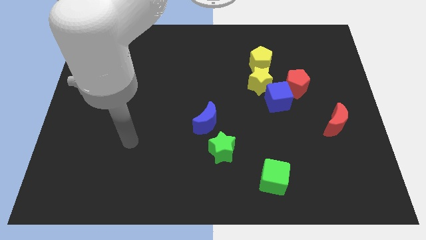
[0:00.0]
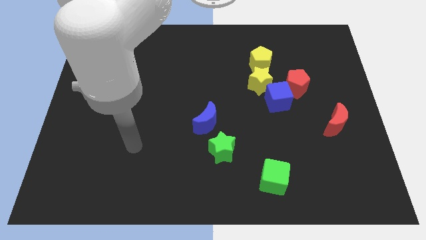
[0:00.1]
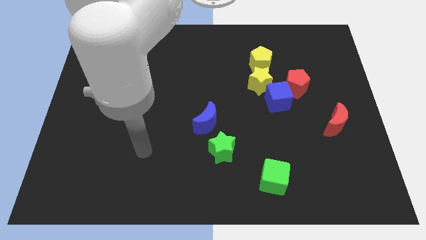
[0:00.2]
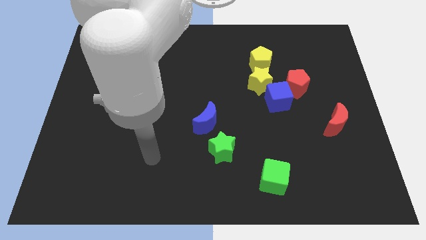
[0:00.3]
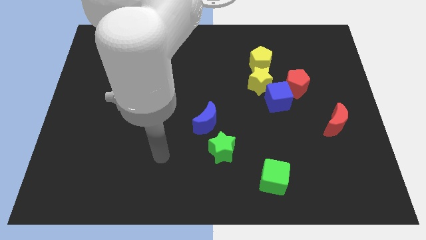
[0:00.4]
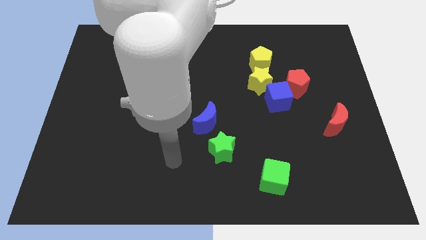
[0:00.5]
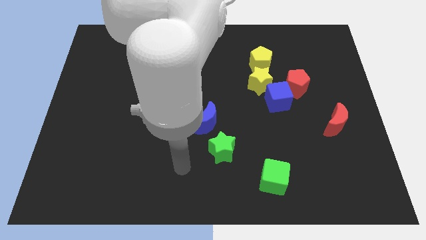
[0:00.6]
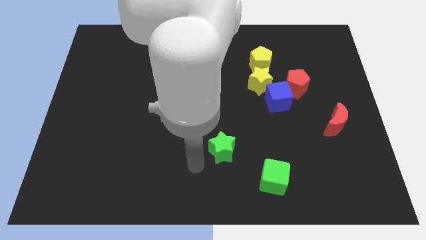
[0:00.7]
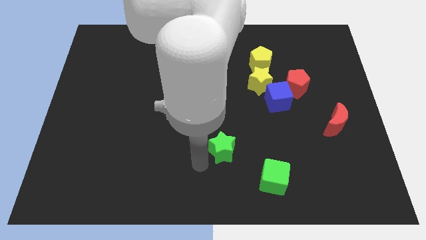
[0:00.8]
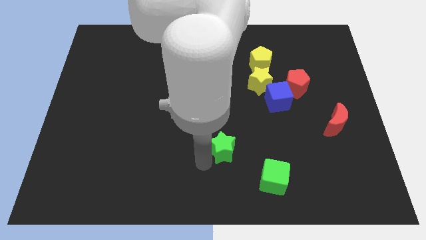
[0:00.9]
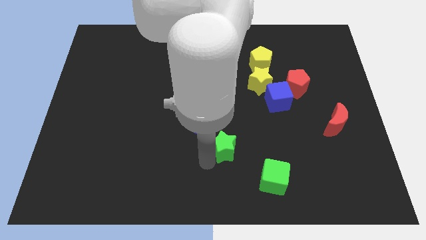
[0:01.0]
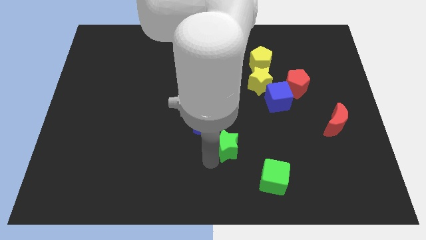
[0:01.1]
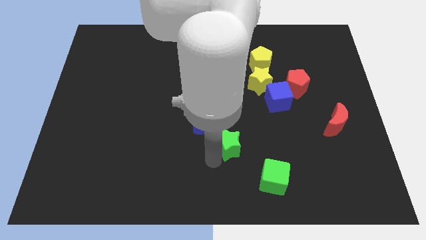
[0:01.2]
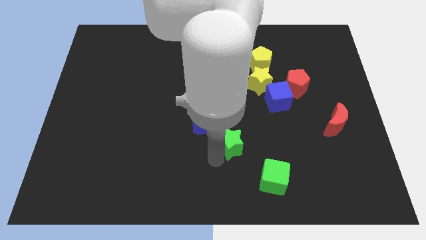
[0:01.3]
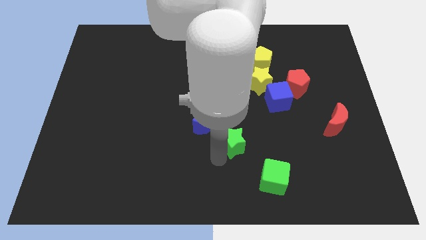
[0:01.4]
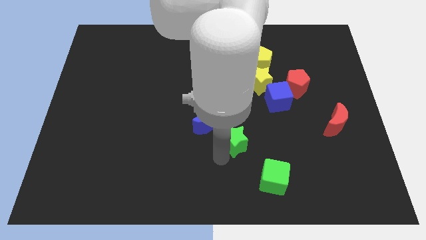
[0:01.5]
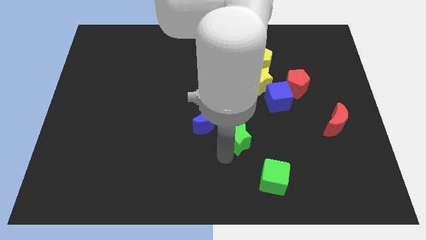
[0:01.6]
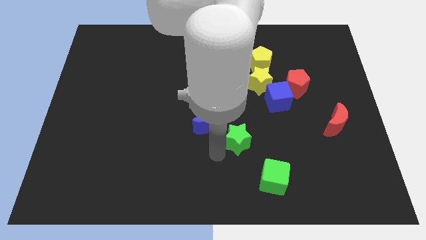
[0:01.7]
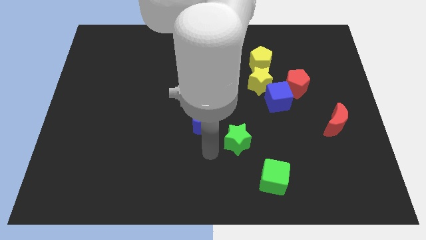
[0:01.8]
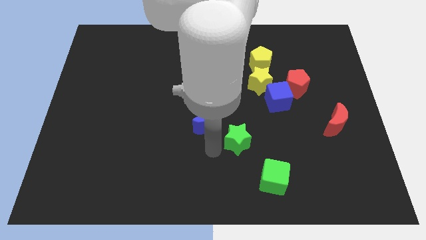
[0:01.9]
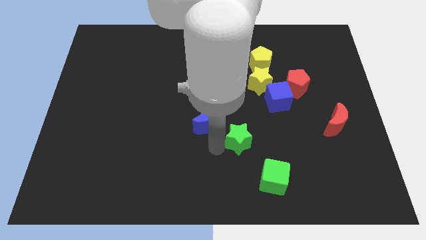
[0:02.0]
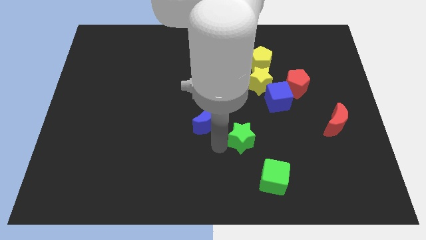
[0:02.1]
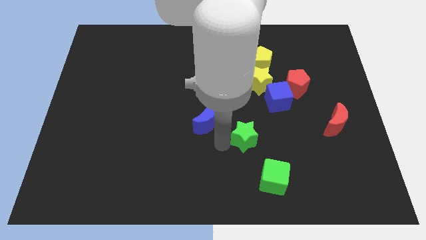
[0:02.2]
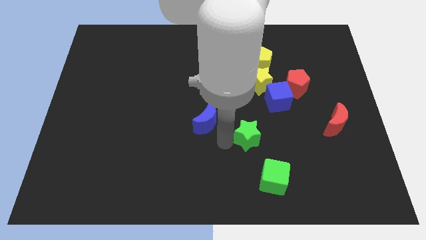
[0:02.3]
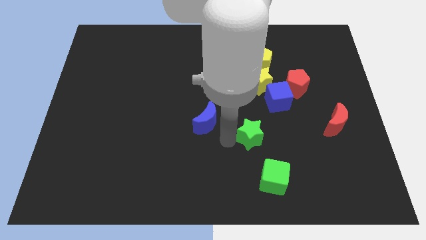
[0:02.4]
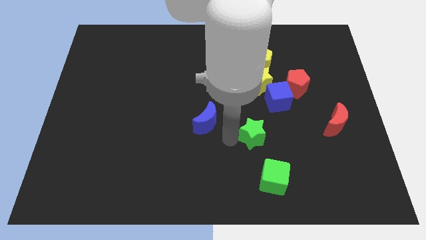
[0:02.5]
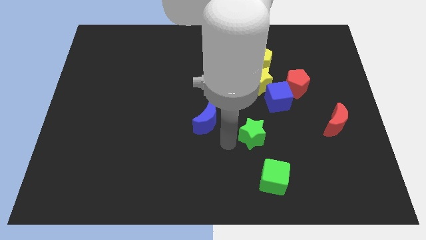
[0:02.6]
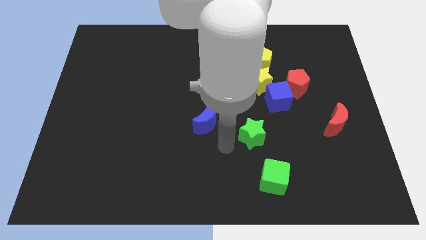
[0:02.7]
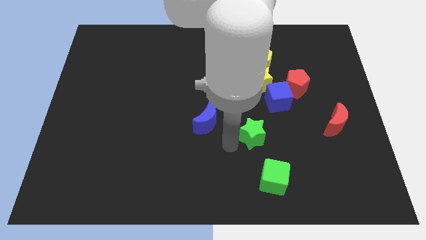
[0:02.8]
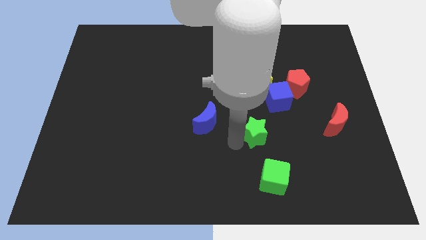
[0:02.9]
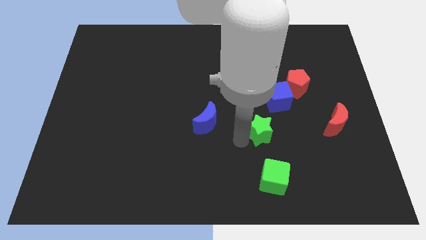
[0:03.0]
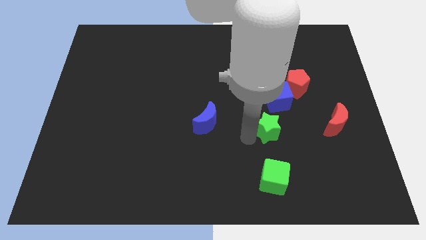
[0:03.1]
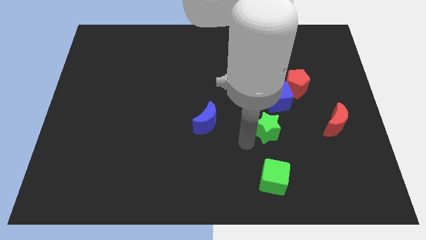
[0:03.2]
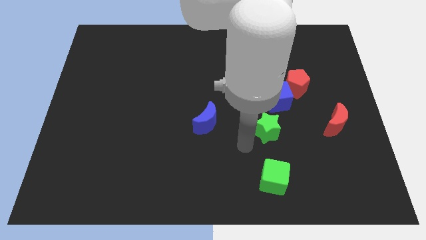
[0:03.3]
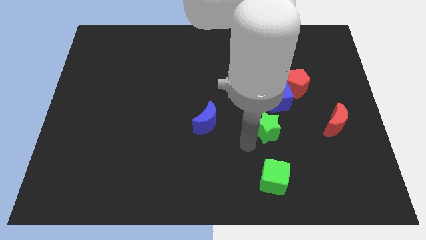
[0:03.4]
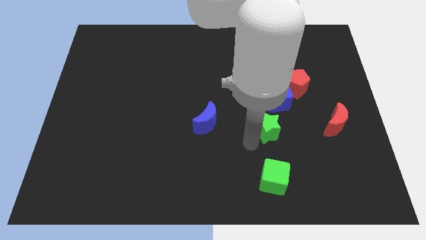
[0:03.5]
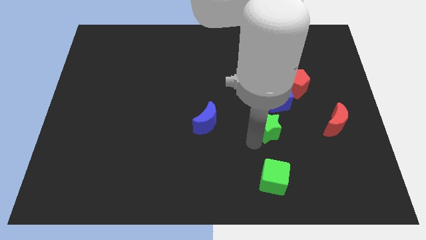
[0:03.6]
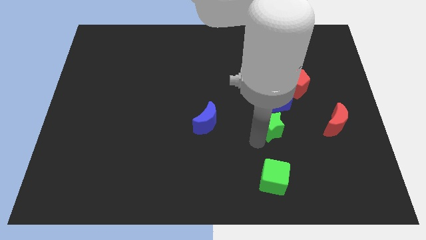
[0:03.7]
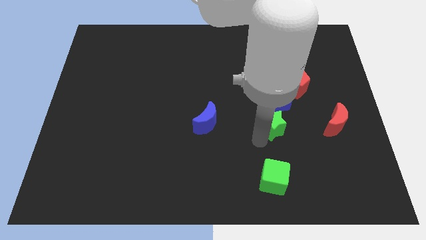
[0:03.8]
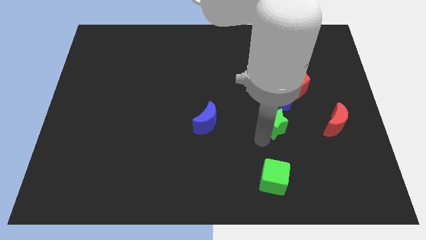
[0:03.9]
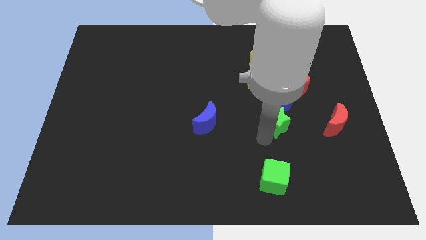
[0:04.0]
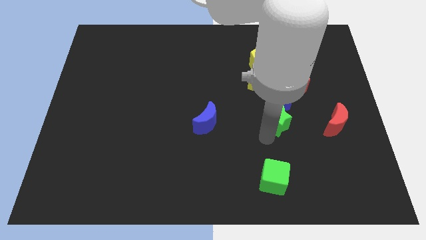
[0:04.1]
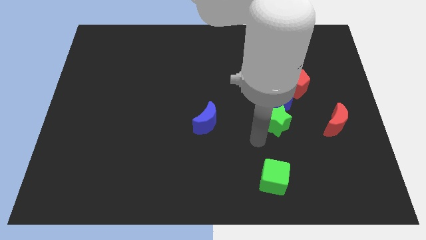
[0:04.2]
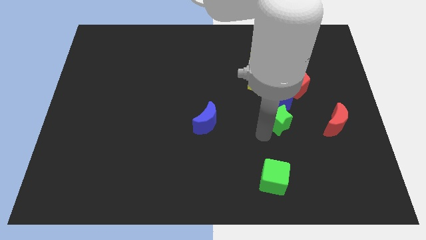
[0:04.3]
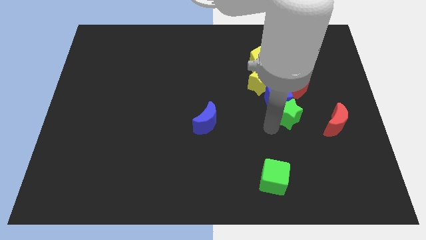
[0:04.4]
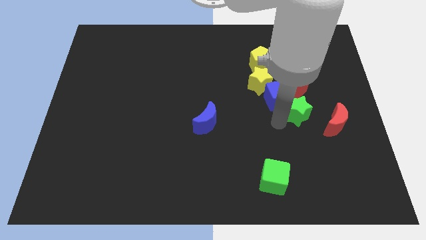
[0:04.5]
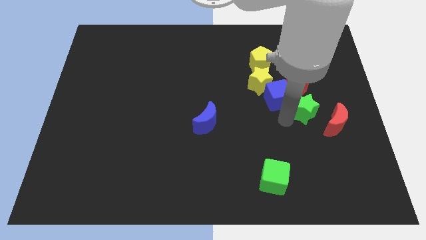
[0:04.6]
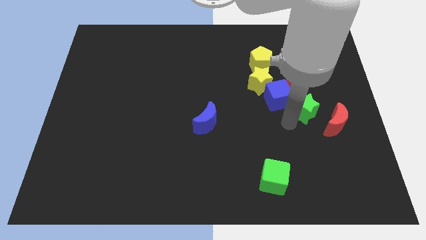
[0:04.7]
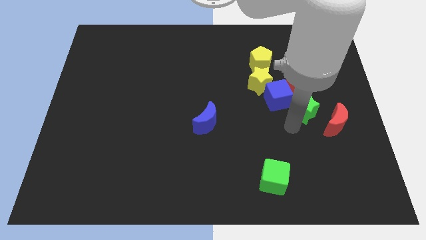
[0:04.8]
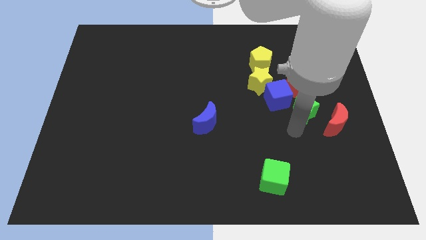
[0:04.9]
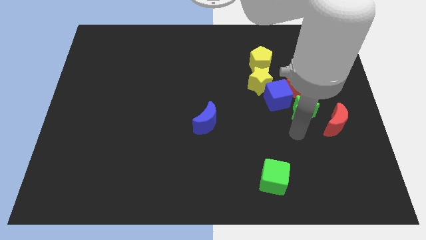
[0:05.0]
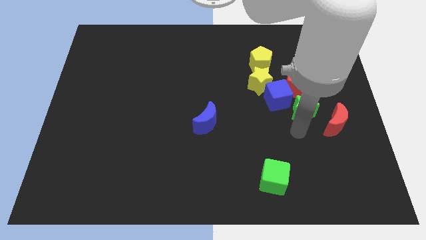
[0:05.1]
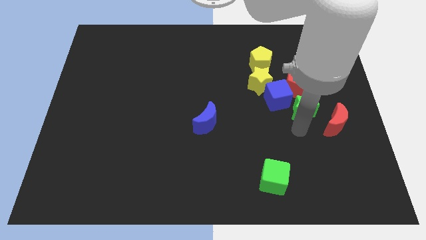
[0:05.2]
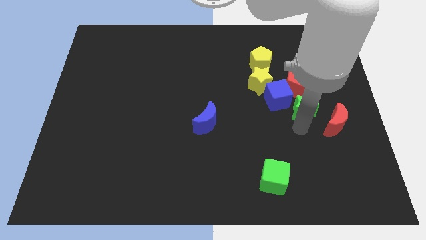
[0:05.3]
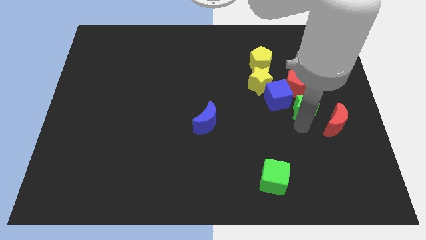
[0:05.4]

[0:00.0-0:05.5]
slide the green star up and right diagonally

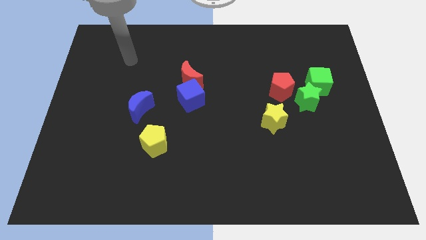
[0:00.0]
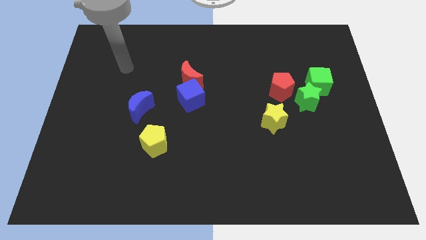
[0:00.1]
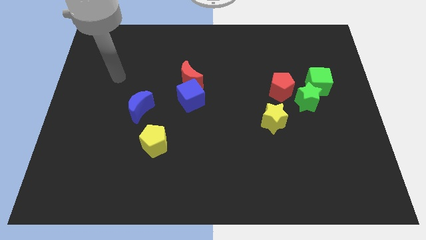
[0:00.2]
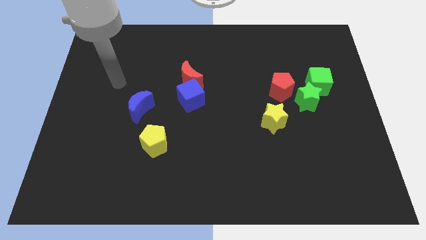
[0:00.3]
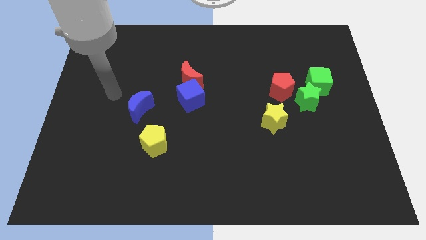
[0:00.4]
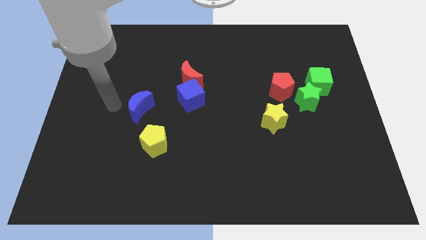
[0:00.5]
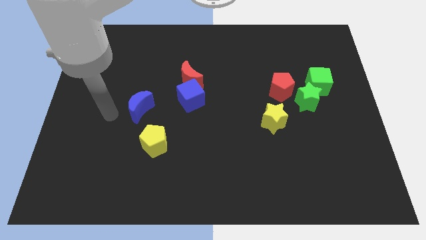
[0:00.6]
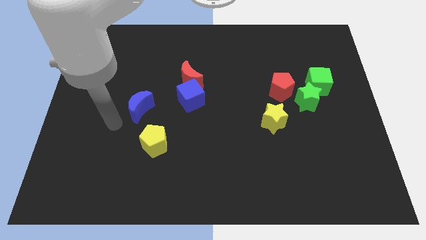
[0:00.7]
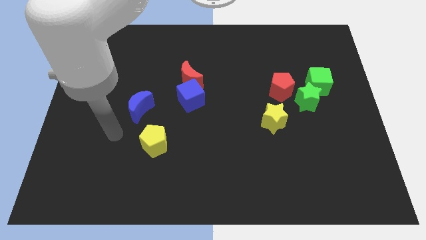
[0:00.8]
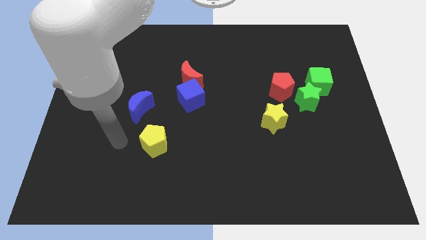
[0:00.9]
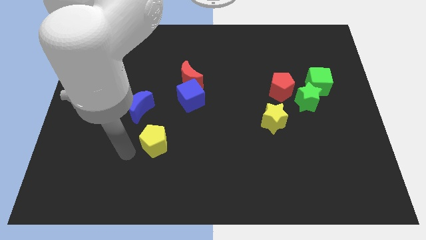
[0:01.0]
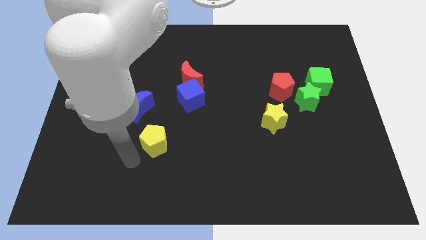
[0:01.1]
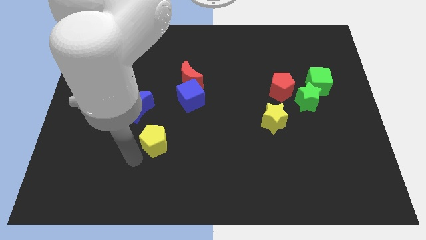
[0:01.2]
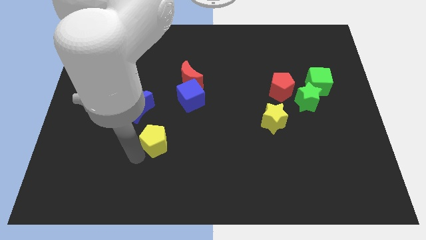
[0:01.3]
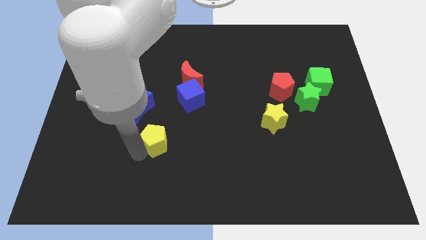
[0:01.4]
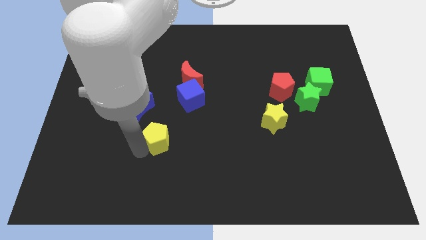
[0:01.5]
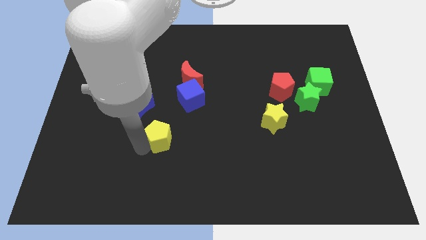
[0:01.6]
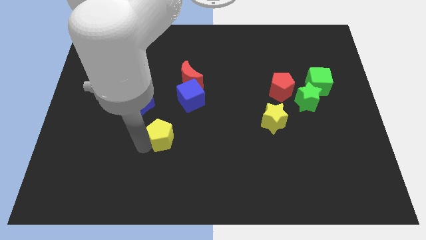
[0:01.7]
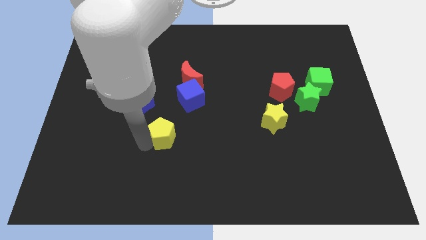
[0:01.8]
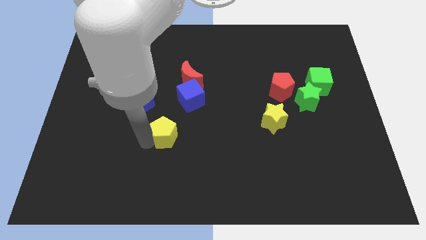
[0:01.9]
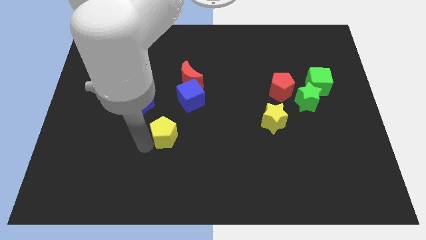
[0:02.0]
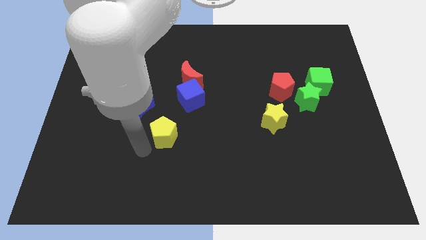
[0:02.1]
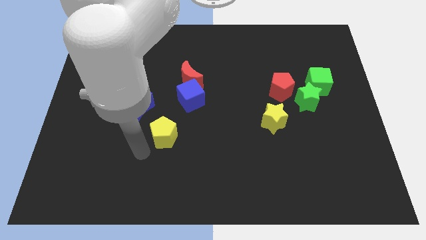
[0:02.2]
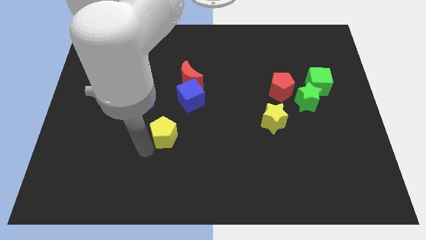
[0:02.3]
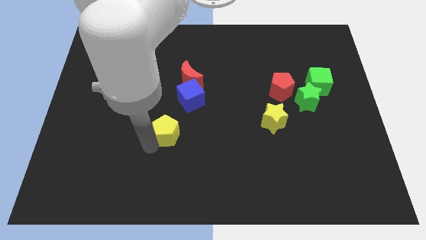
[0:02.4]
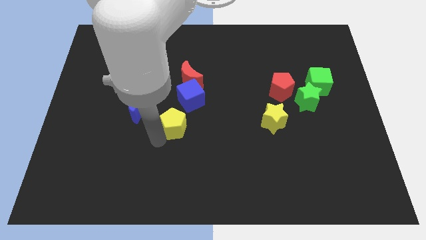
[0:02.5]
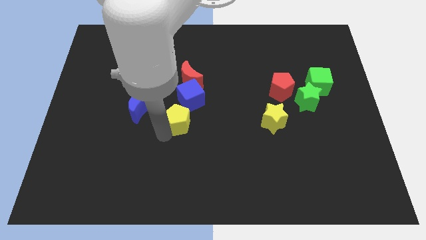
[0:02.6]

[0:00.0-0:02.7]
slightly move the yellow pentagon upwards and then right
